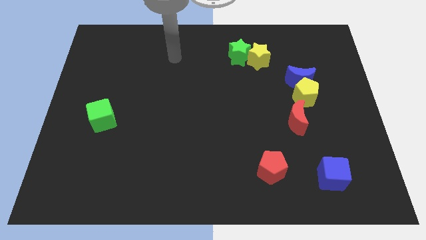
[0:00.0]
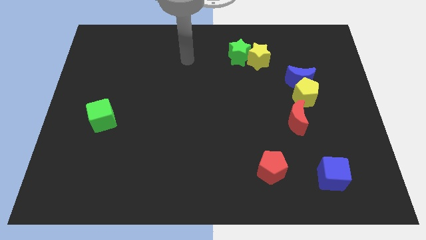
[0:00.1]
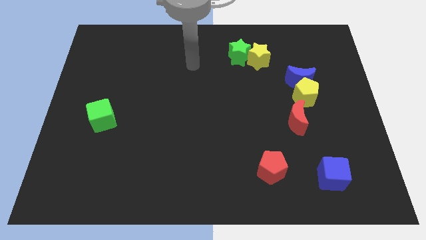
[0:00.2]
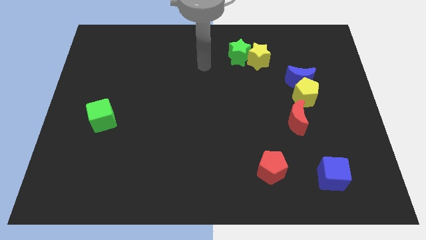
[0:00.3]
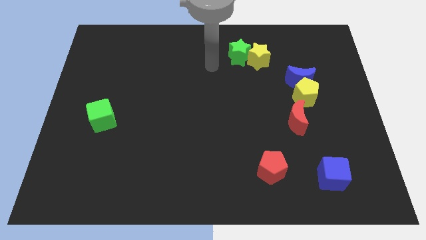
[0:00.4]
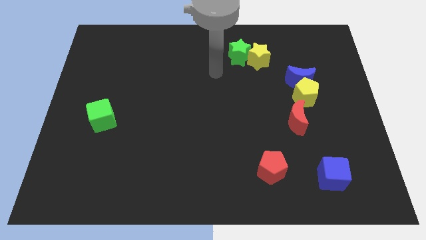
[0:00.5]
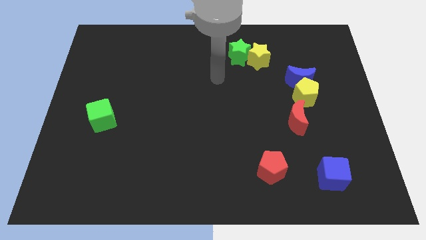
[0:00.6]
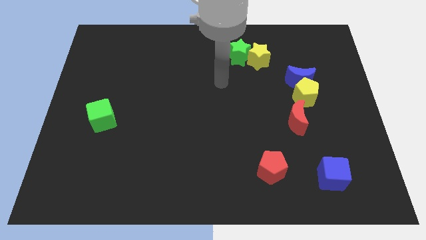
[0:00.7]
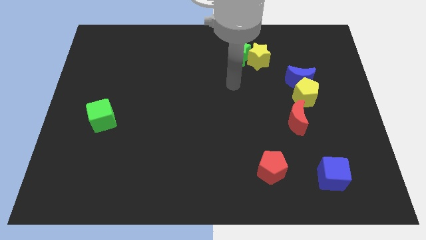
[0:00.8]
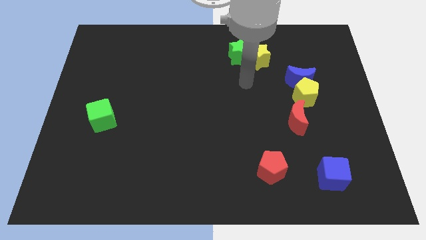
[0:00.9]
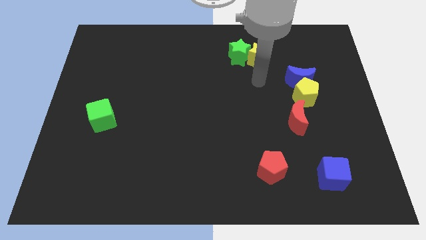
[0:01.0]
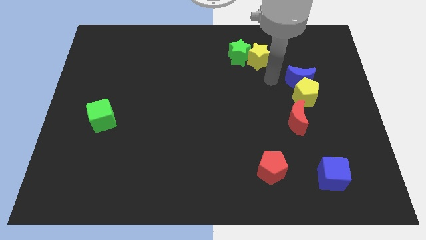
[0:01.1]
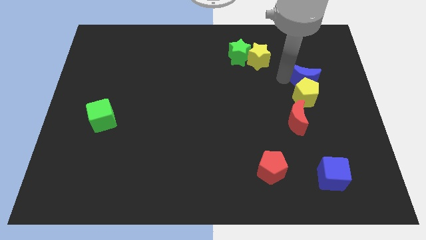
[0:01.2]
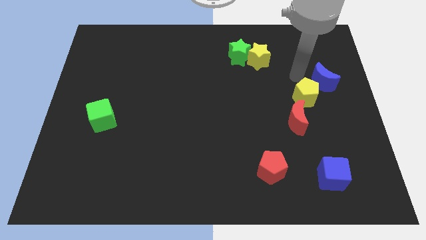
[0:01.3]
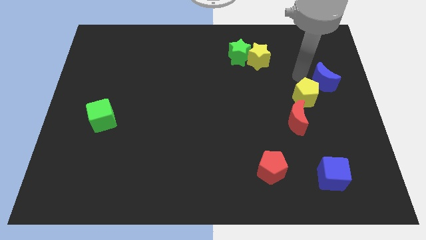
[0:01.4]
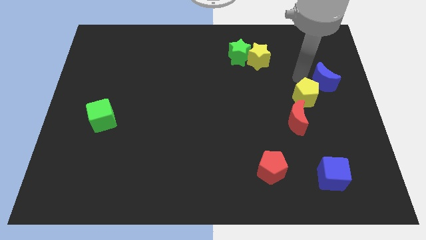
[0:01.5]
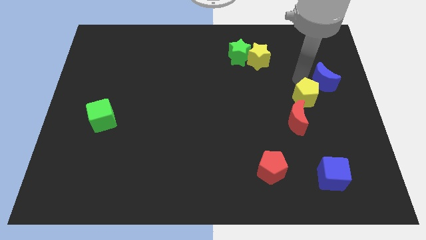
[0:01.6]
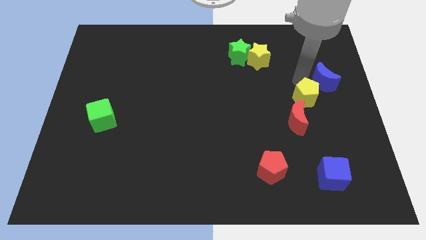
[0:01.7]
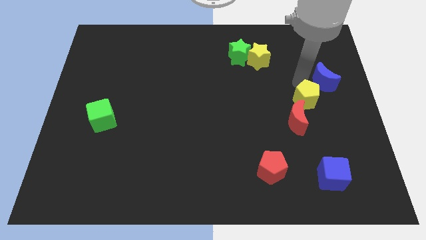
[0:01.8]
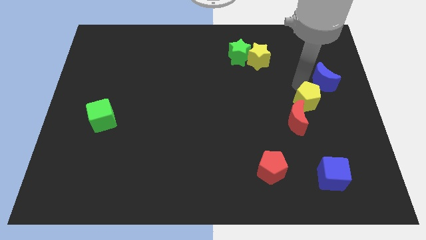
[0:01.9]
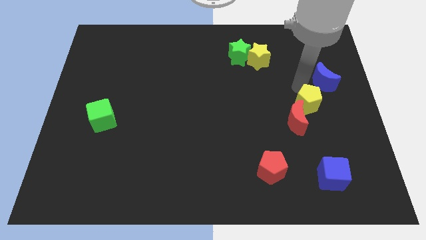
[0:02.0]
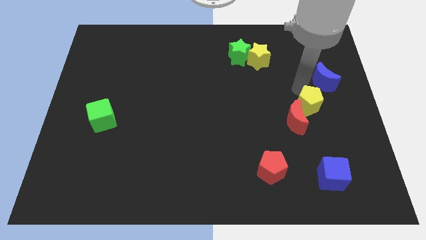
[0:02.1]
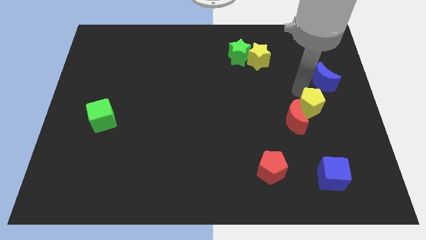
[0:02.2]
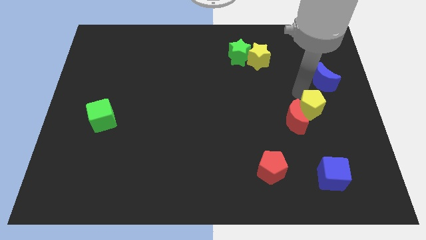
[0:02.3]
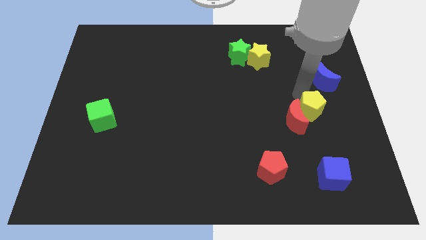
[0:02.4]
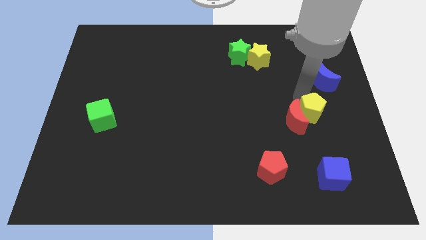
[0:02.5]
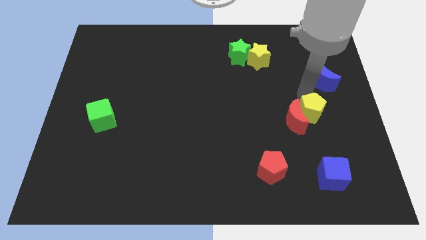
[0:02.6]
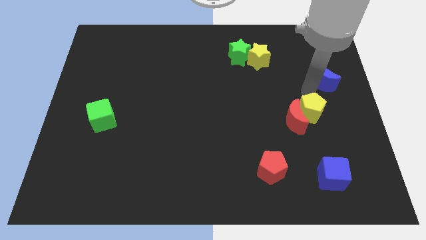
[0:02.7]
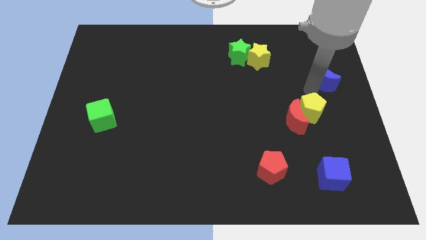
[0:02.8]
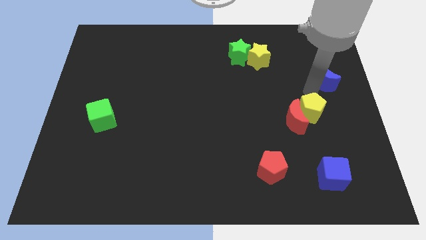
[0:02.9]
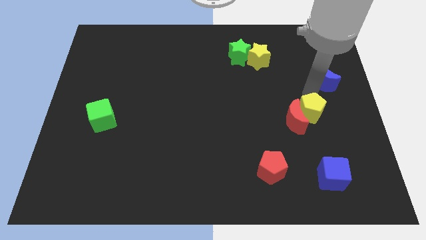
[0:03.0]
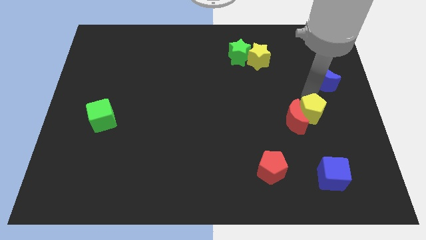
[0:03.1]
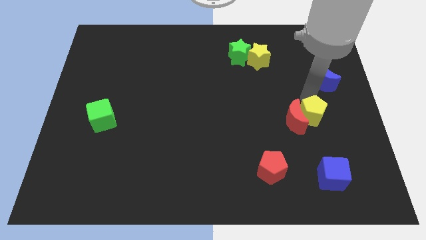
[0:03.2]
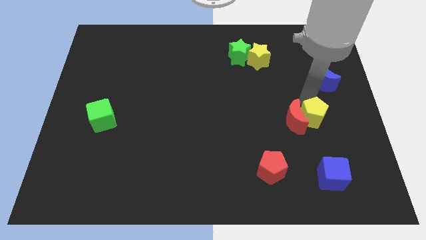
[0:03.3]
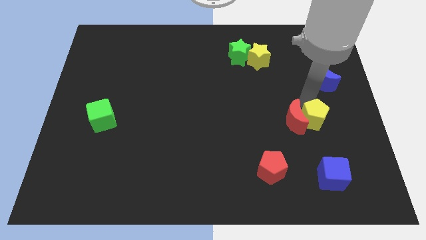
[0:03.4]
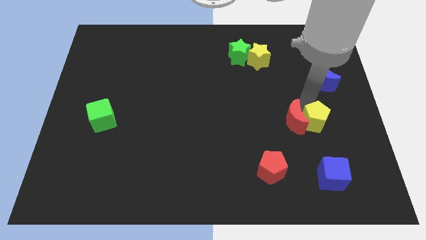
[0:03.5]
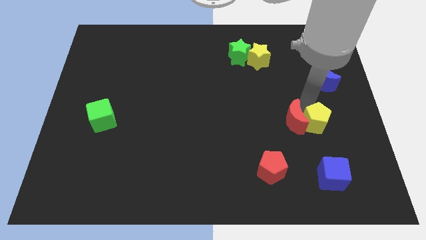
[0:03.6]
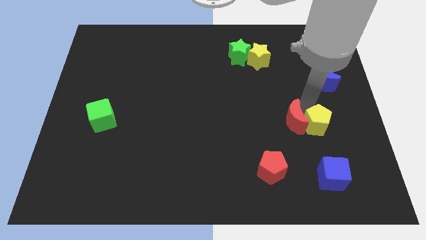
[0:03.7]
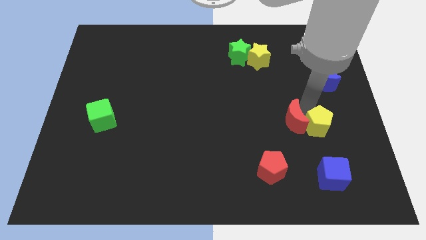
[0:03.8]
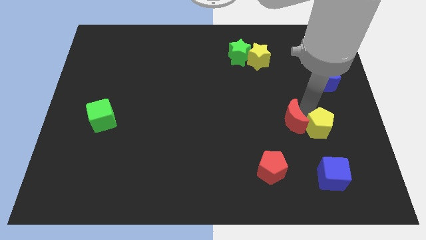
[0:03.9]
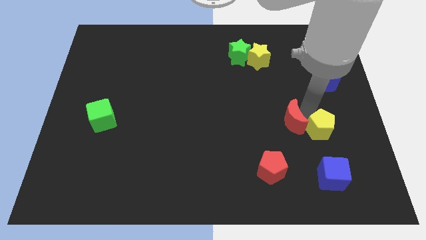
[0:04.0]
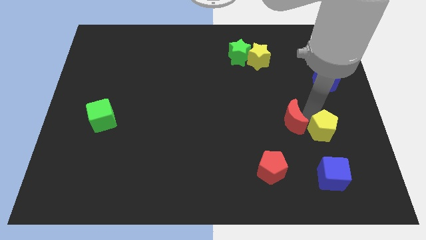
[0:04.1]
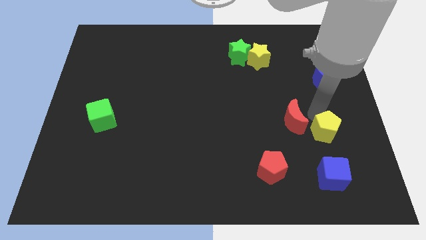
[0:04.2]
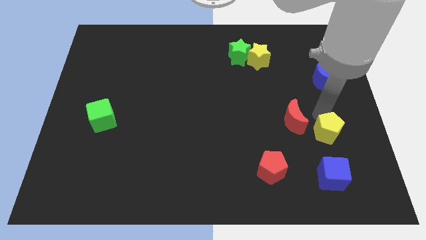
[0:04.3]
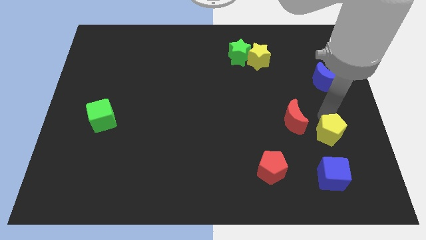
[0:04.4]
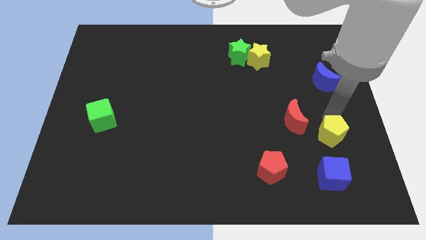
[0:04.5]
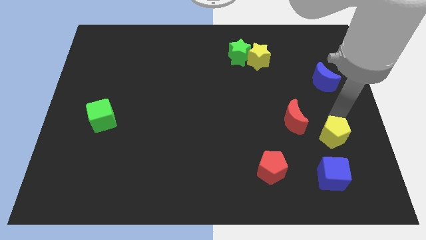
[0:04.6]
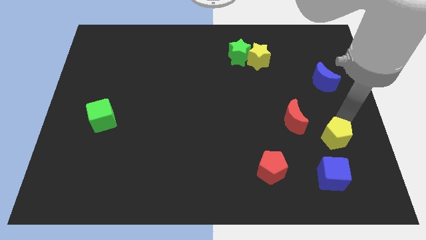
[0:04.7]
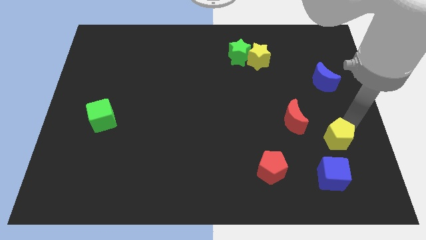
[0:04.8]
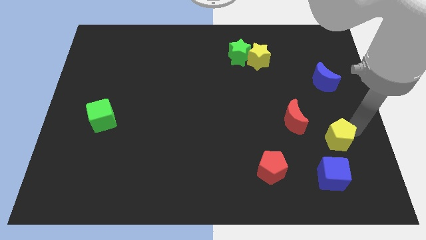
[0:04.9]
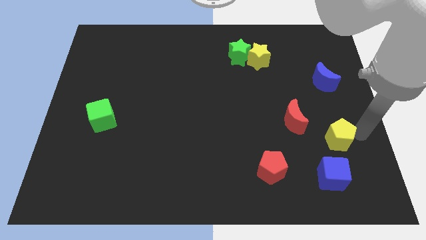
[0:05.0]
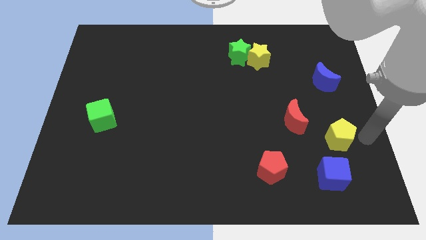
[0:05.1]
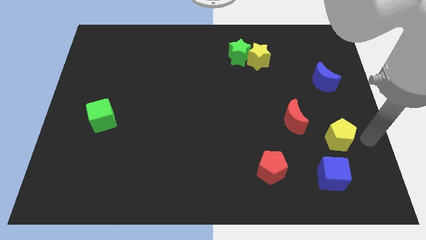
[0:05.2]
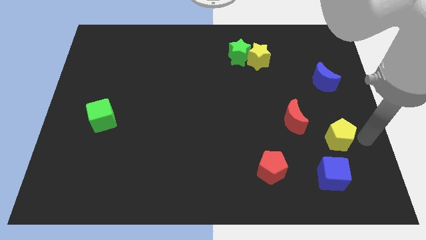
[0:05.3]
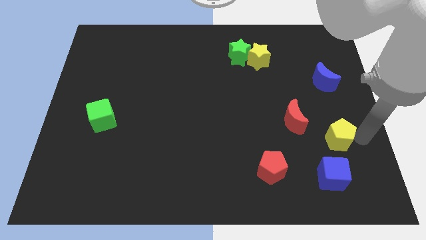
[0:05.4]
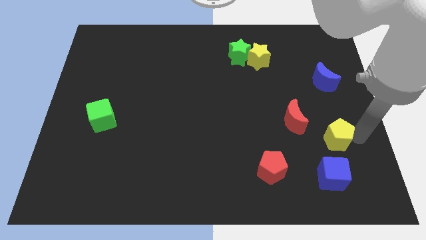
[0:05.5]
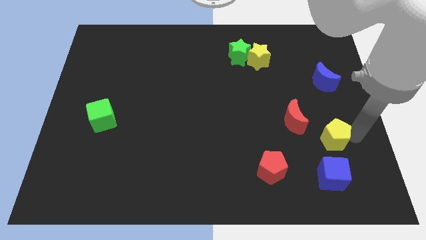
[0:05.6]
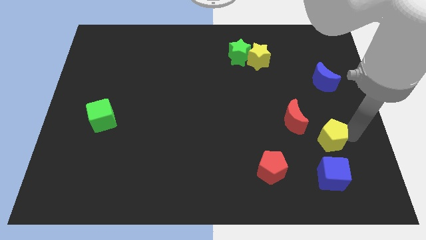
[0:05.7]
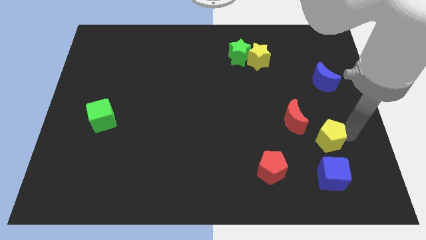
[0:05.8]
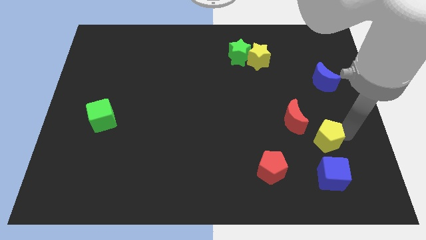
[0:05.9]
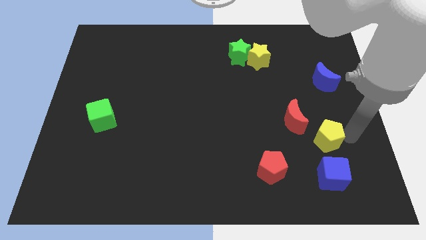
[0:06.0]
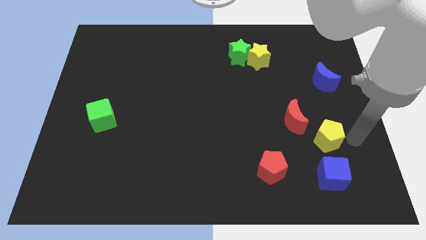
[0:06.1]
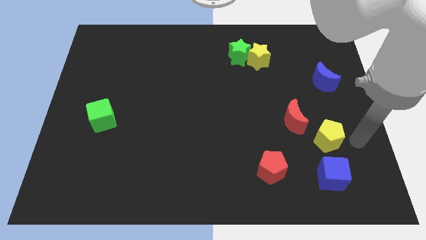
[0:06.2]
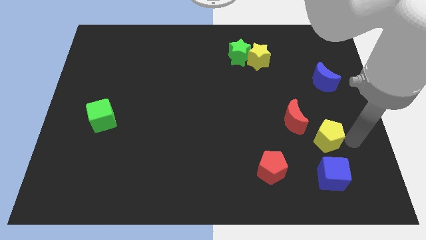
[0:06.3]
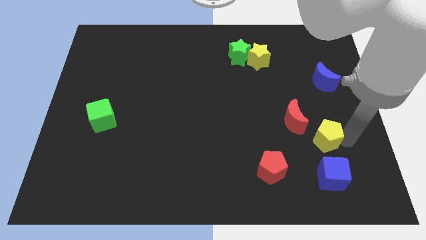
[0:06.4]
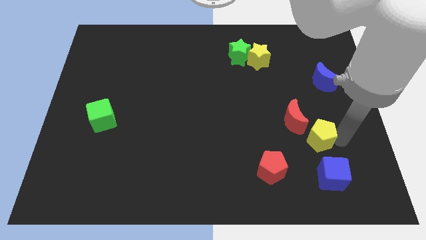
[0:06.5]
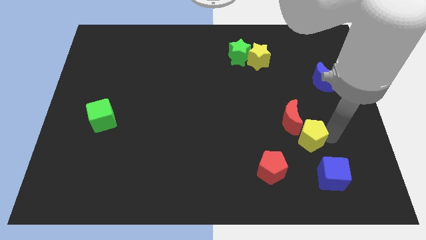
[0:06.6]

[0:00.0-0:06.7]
put the yellow pentagon to the bottom side of the red moon
